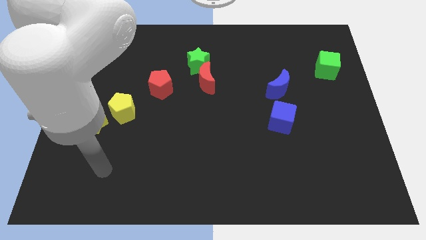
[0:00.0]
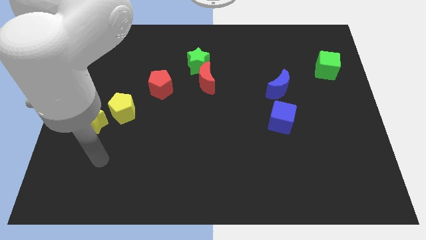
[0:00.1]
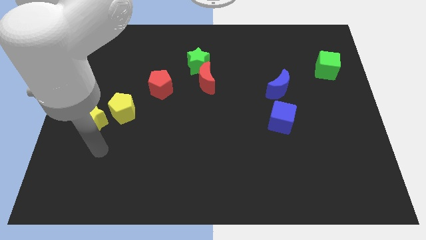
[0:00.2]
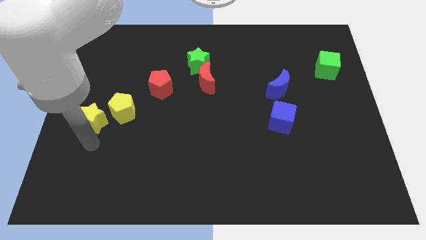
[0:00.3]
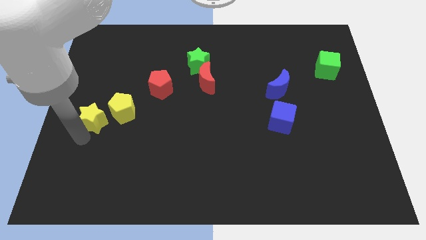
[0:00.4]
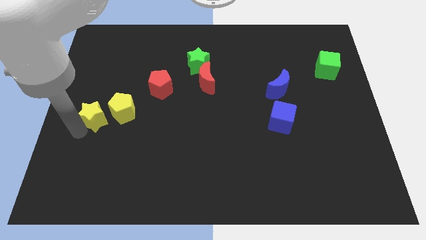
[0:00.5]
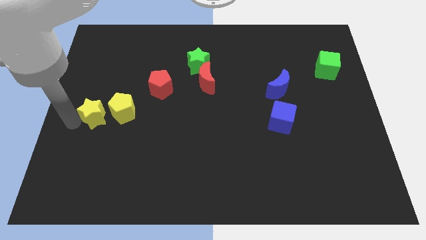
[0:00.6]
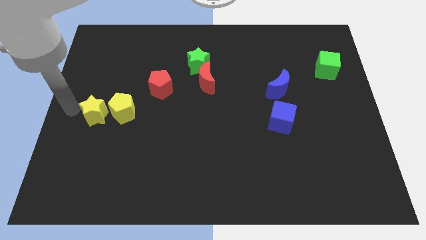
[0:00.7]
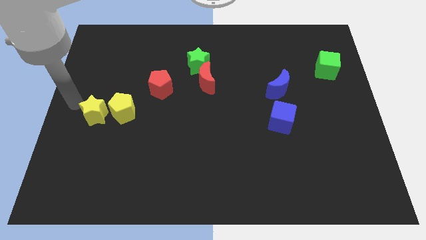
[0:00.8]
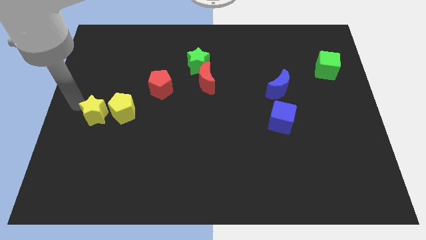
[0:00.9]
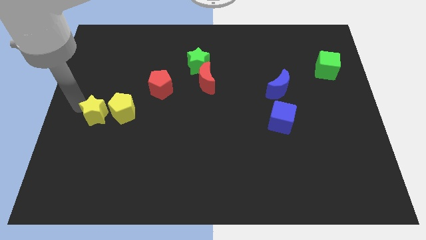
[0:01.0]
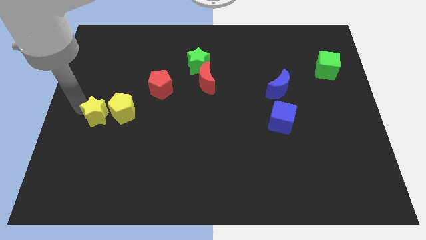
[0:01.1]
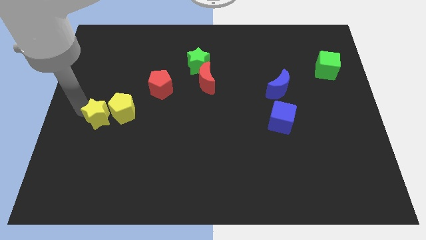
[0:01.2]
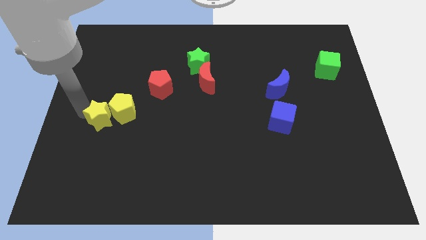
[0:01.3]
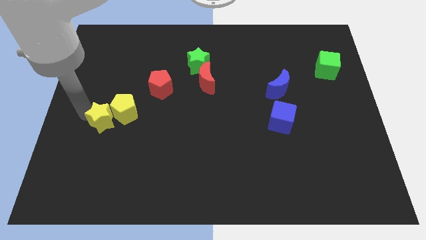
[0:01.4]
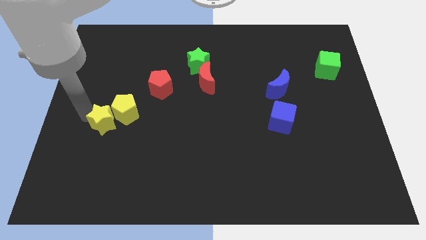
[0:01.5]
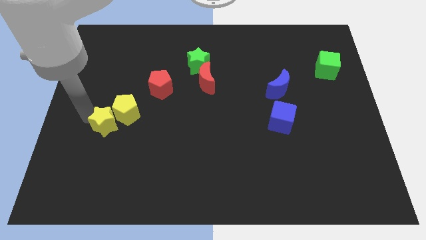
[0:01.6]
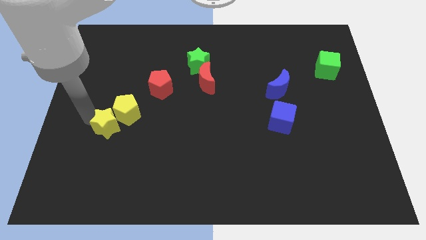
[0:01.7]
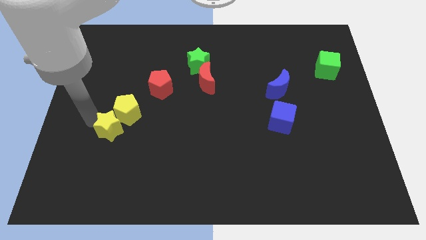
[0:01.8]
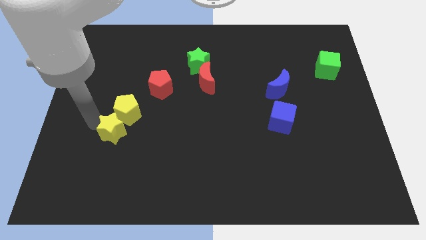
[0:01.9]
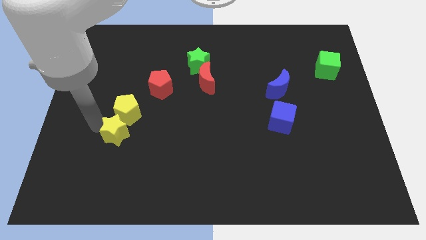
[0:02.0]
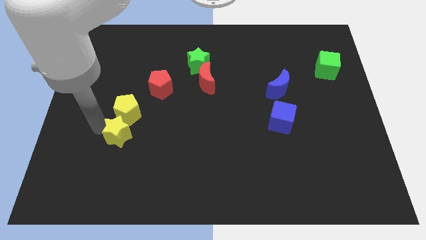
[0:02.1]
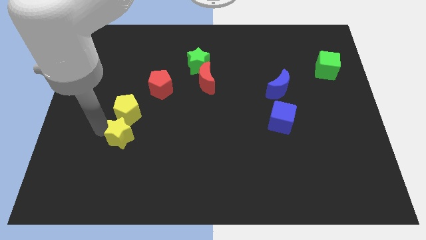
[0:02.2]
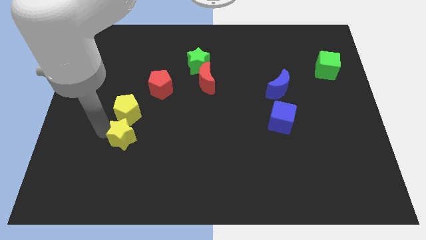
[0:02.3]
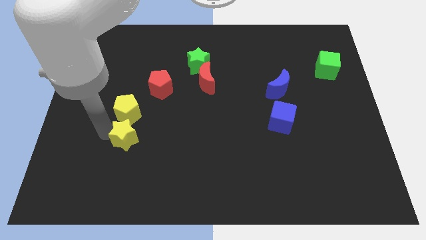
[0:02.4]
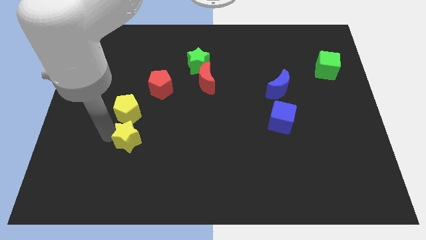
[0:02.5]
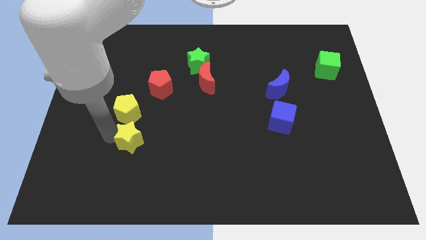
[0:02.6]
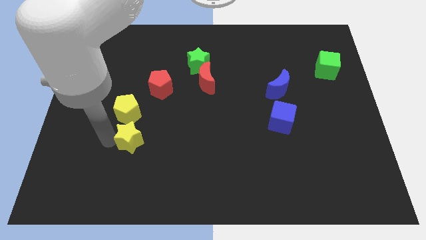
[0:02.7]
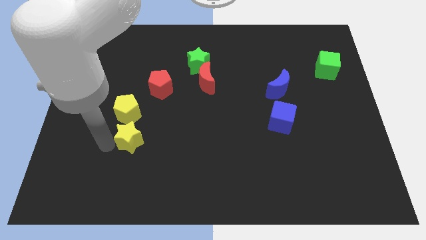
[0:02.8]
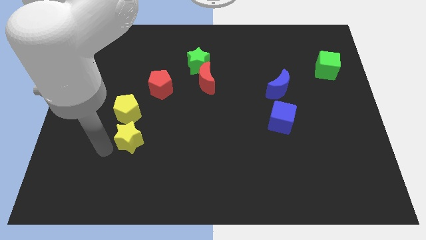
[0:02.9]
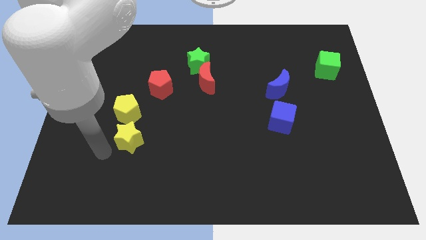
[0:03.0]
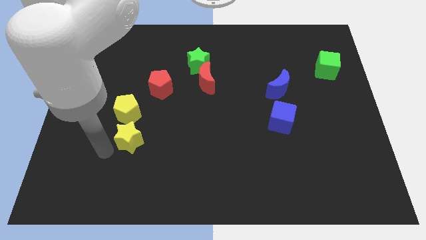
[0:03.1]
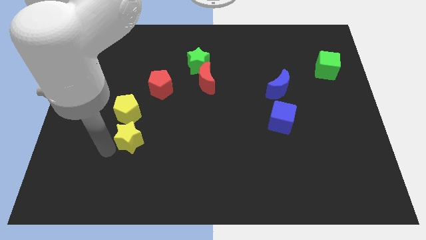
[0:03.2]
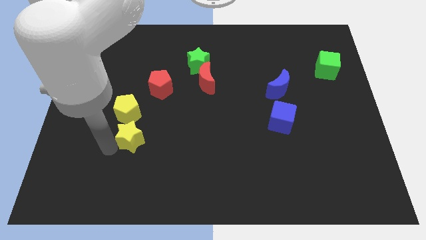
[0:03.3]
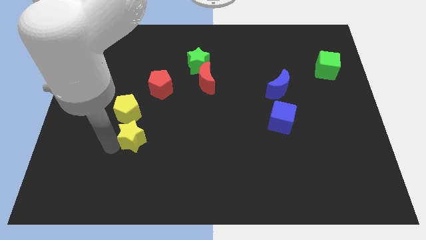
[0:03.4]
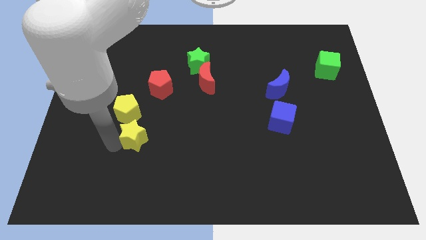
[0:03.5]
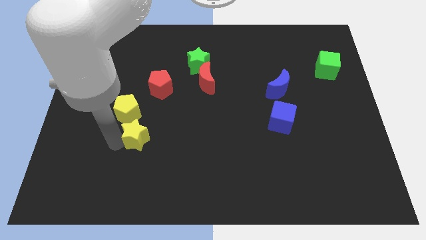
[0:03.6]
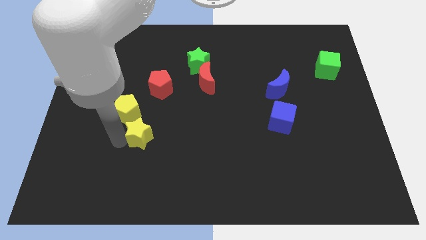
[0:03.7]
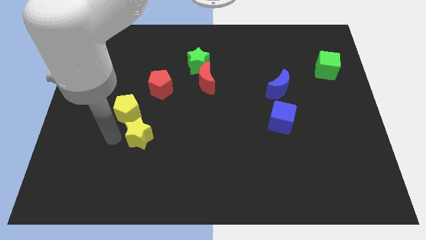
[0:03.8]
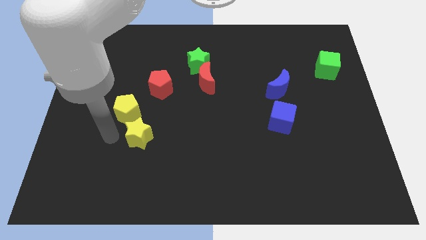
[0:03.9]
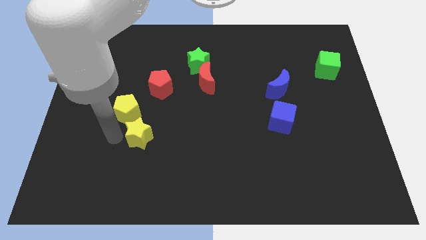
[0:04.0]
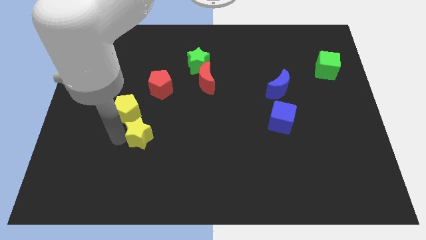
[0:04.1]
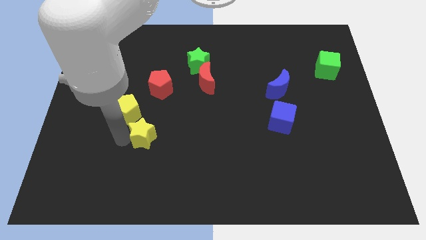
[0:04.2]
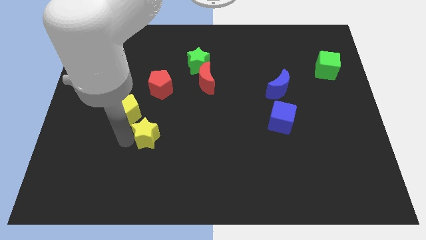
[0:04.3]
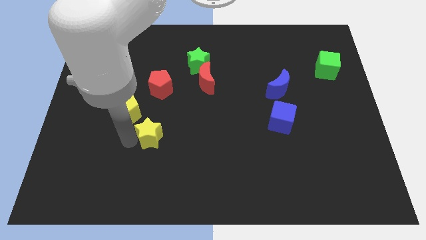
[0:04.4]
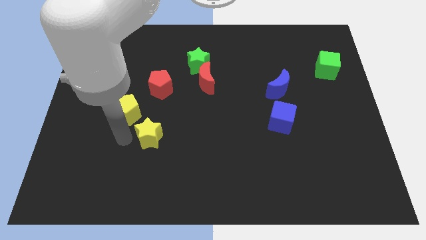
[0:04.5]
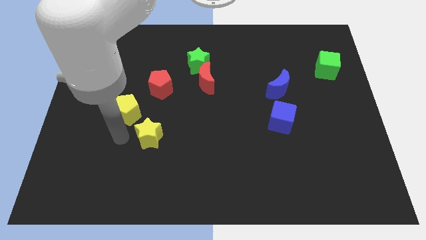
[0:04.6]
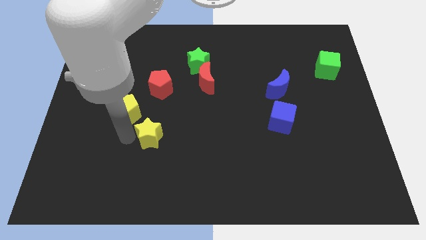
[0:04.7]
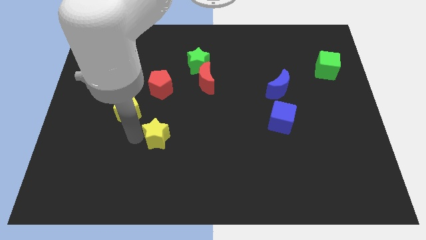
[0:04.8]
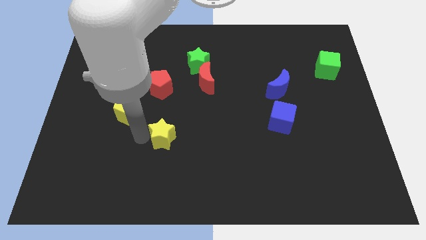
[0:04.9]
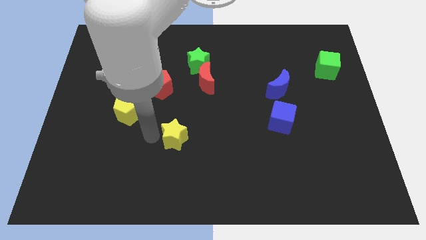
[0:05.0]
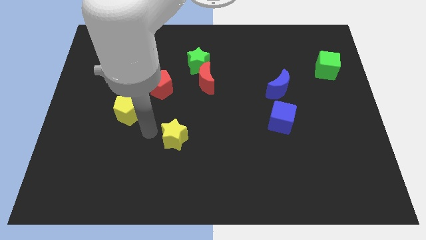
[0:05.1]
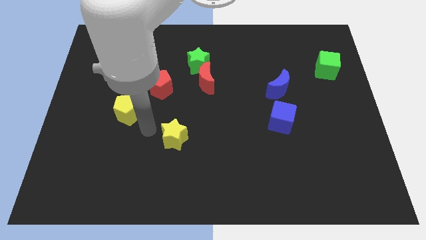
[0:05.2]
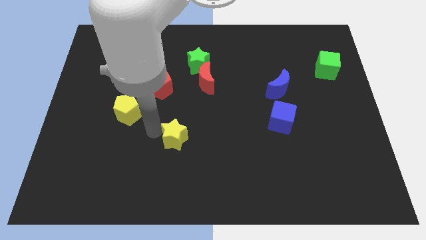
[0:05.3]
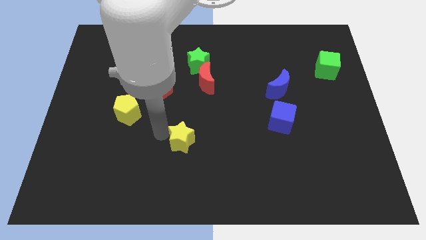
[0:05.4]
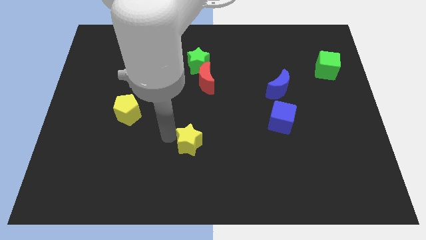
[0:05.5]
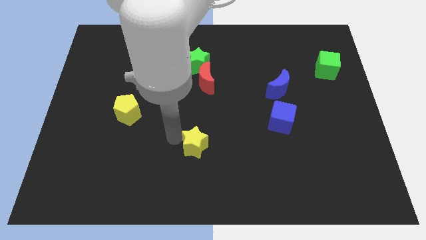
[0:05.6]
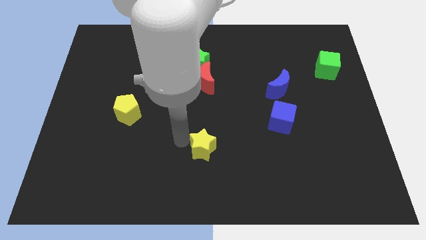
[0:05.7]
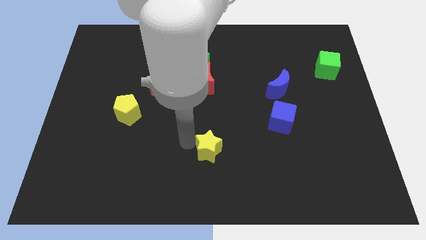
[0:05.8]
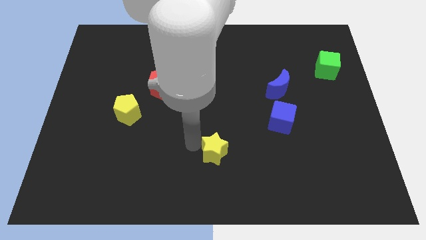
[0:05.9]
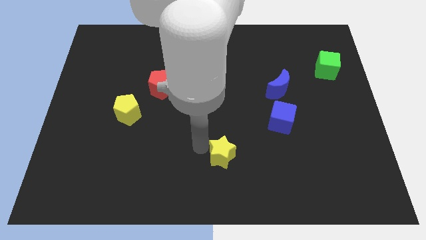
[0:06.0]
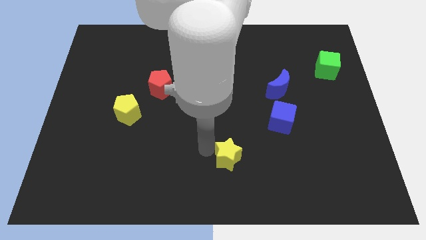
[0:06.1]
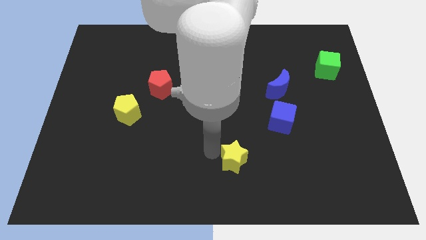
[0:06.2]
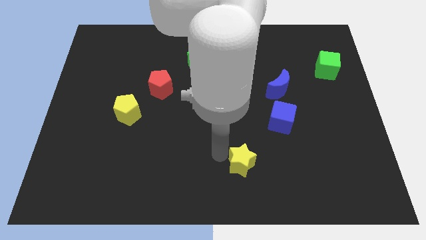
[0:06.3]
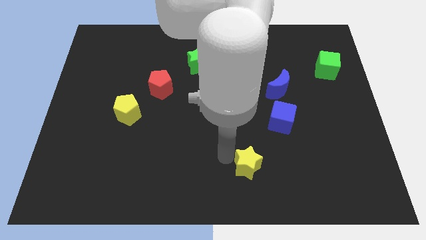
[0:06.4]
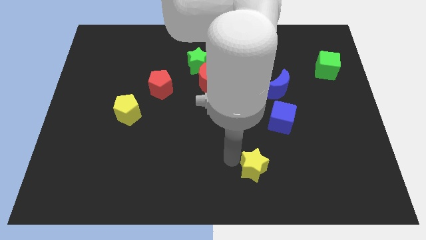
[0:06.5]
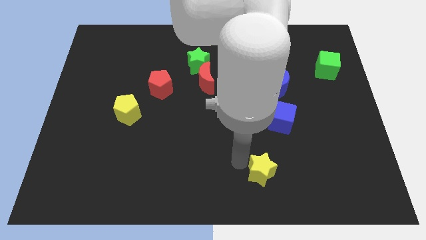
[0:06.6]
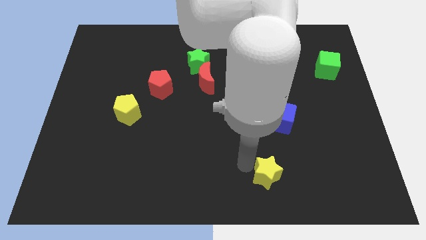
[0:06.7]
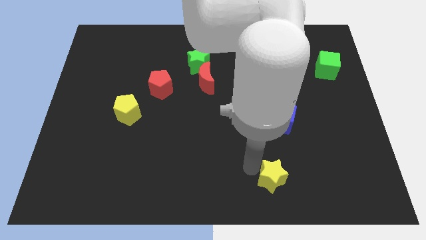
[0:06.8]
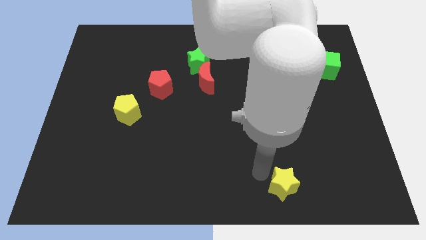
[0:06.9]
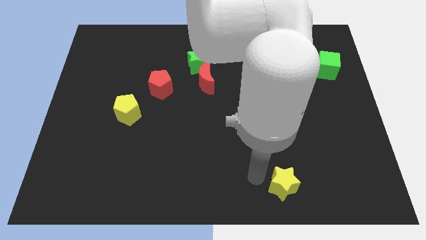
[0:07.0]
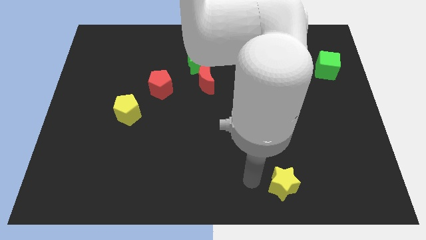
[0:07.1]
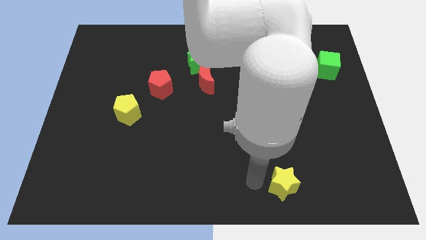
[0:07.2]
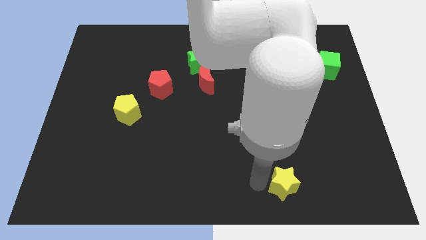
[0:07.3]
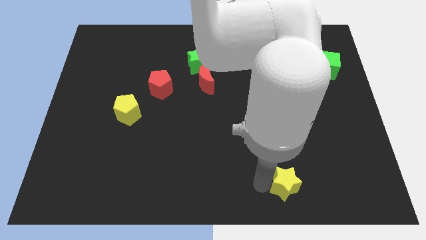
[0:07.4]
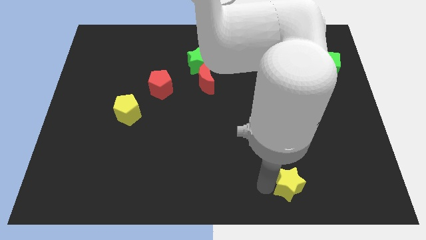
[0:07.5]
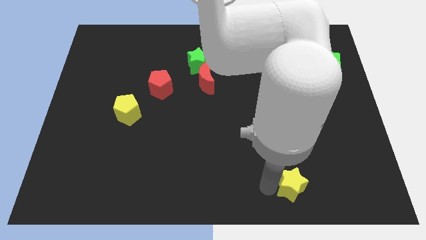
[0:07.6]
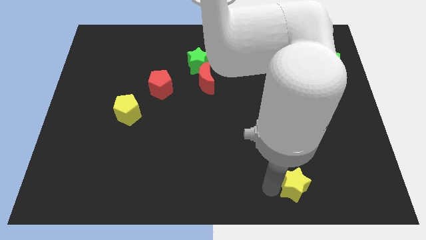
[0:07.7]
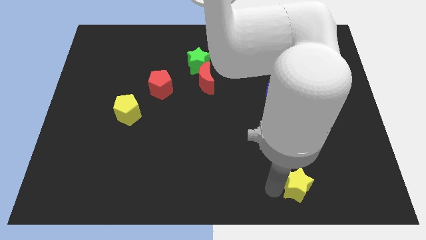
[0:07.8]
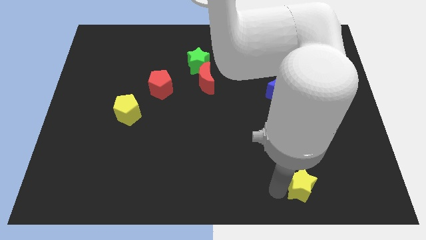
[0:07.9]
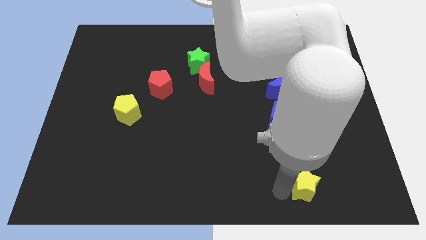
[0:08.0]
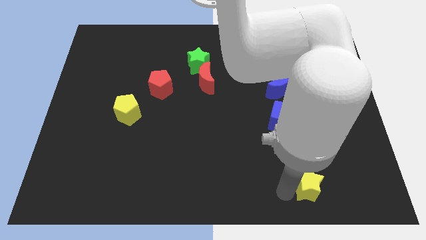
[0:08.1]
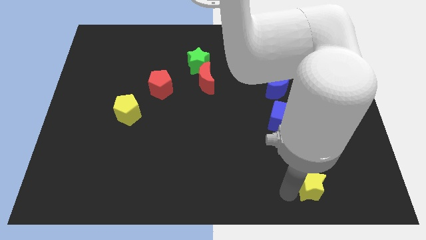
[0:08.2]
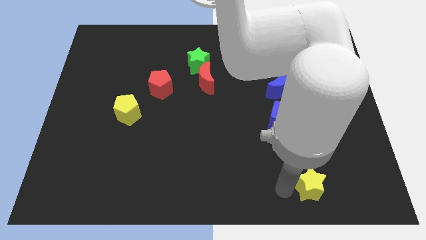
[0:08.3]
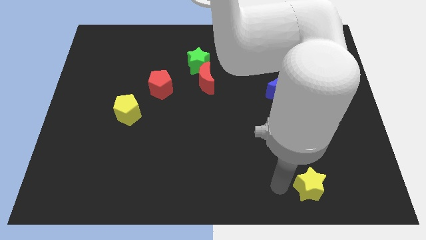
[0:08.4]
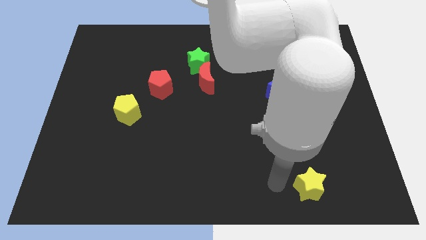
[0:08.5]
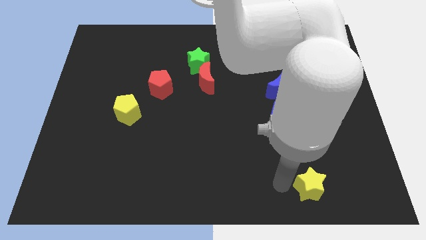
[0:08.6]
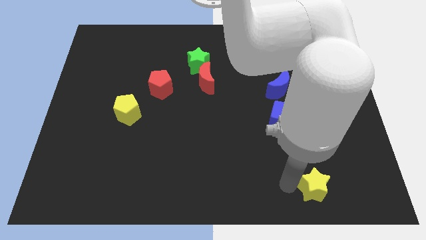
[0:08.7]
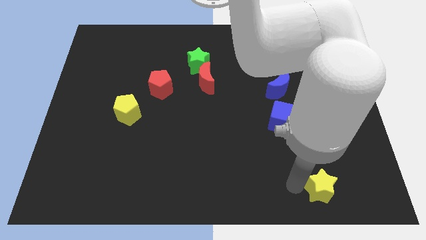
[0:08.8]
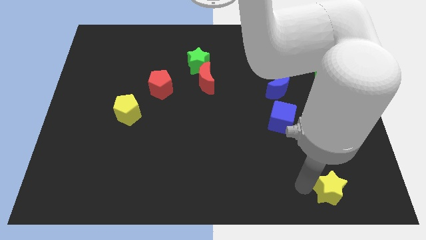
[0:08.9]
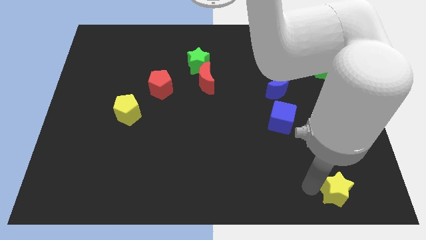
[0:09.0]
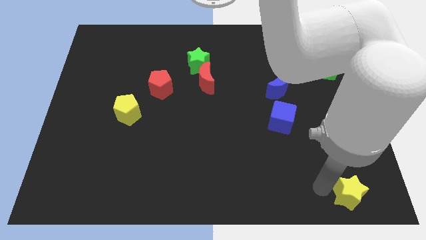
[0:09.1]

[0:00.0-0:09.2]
put the yellow star to the bottom right corner
